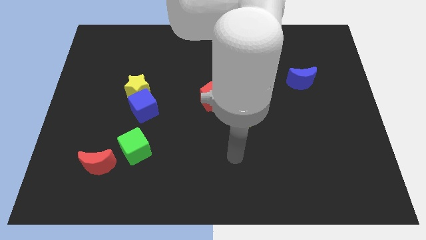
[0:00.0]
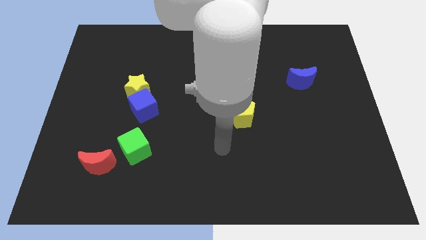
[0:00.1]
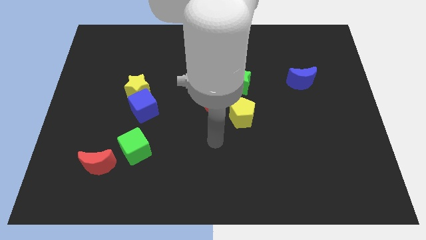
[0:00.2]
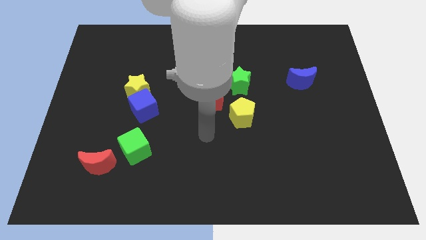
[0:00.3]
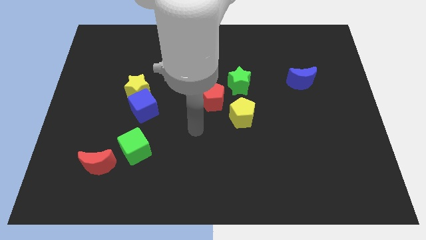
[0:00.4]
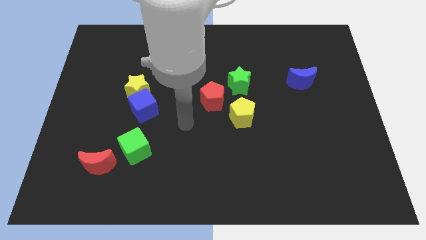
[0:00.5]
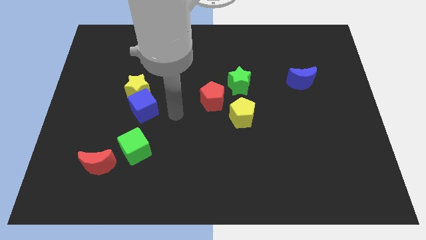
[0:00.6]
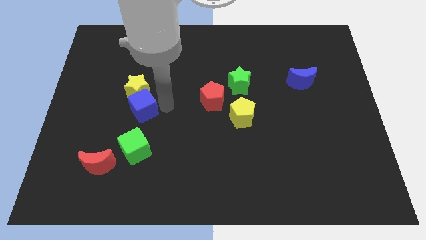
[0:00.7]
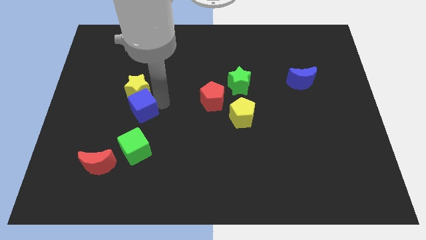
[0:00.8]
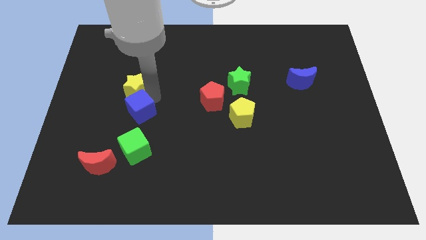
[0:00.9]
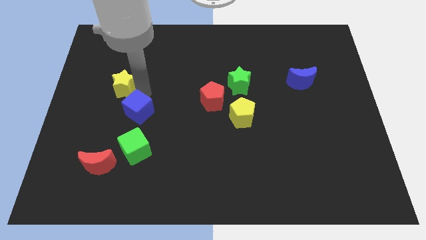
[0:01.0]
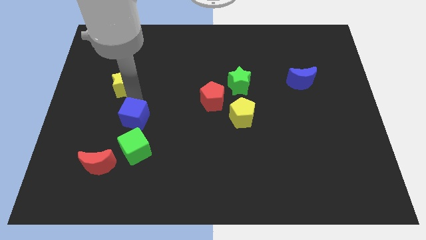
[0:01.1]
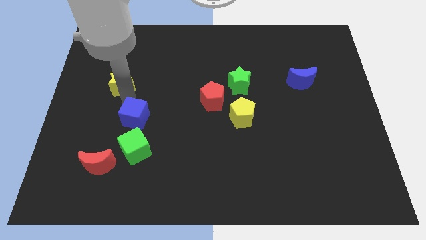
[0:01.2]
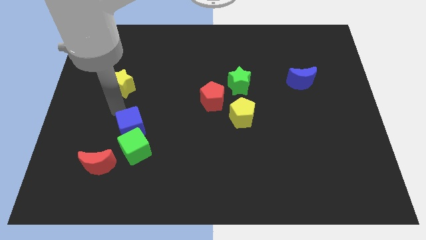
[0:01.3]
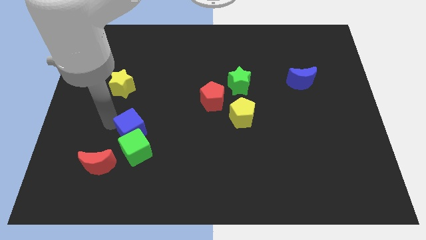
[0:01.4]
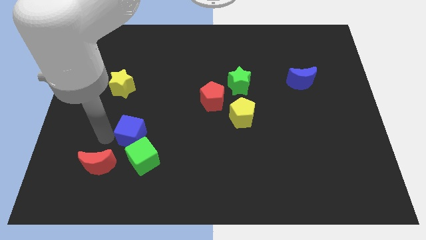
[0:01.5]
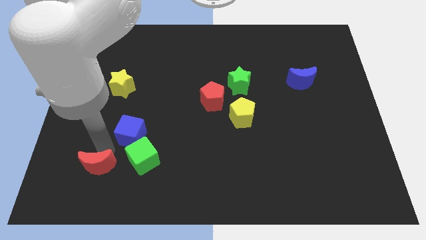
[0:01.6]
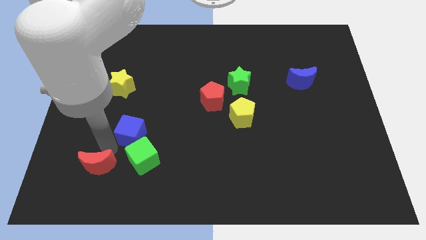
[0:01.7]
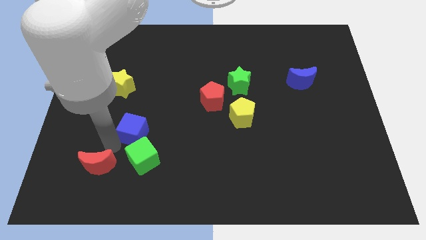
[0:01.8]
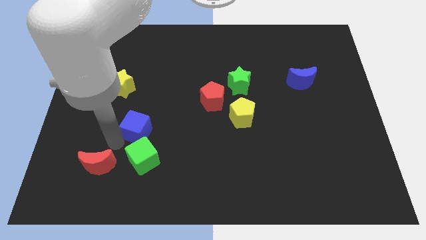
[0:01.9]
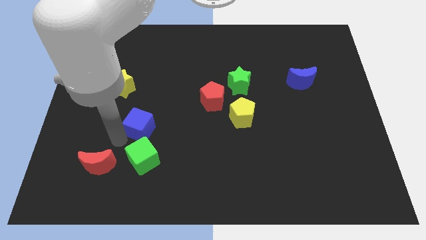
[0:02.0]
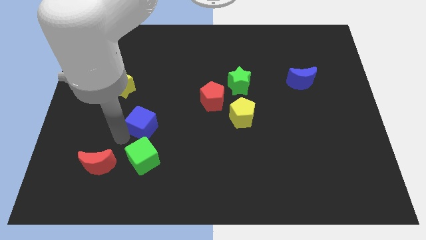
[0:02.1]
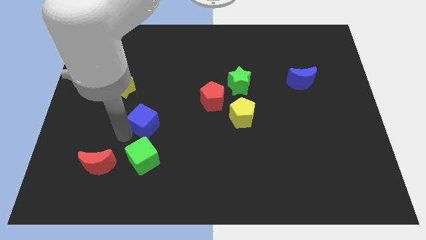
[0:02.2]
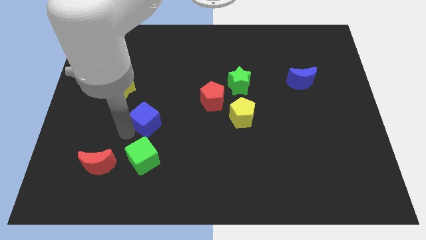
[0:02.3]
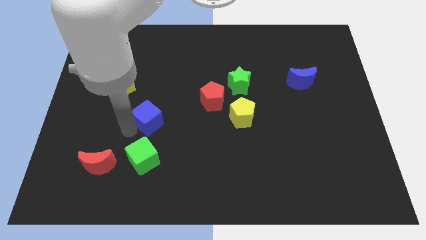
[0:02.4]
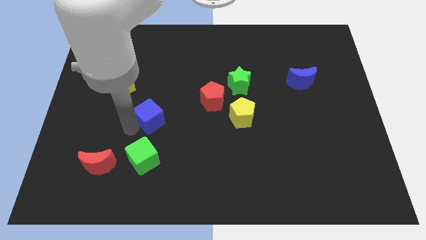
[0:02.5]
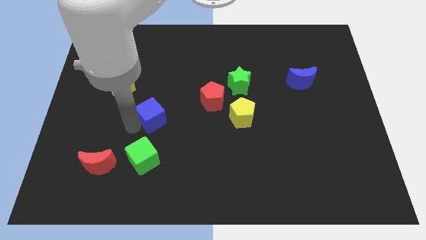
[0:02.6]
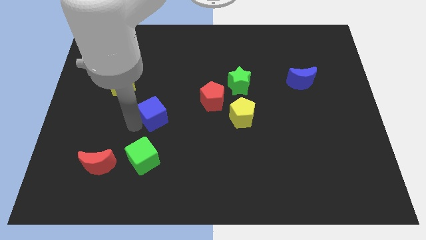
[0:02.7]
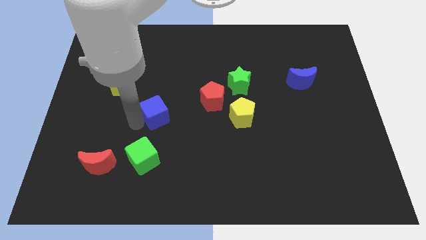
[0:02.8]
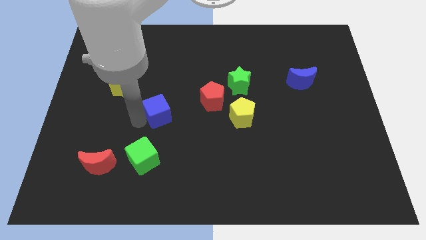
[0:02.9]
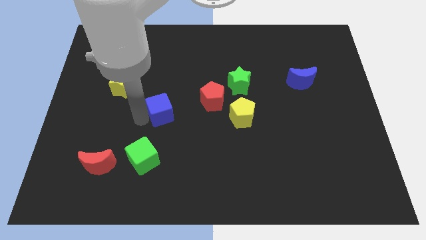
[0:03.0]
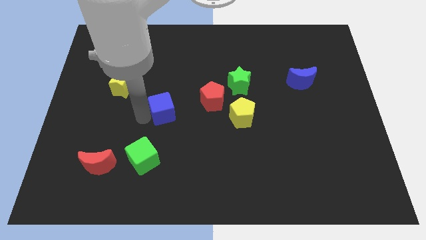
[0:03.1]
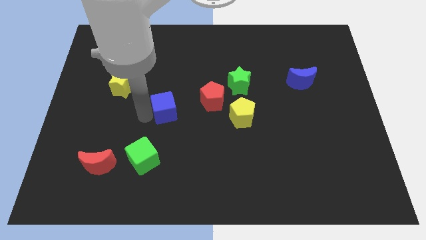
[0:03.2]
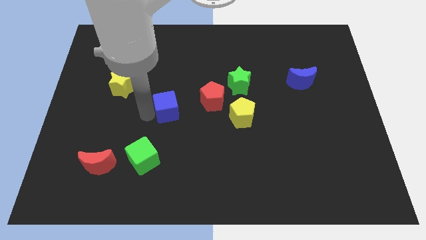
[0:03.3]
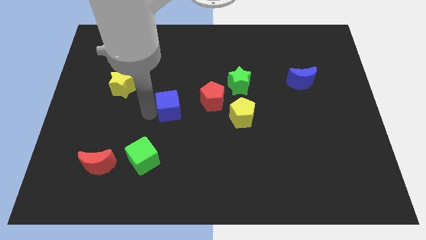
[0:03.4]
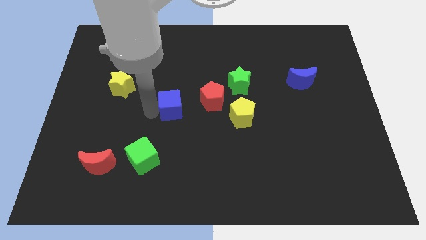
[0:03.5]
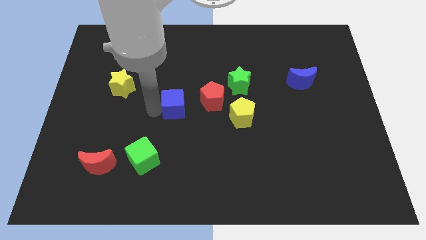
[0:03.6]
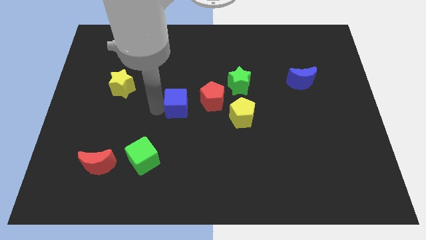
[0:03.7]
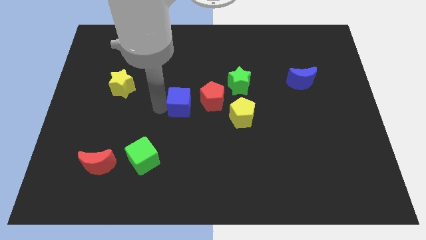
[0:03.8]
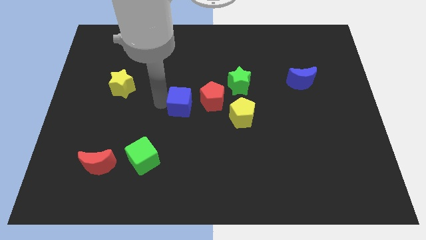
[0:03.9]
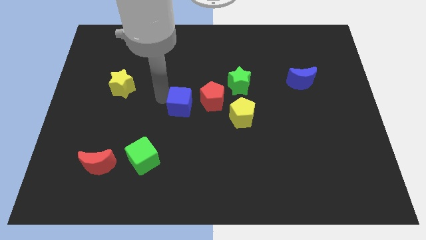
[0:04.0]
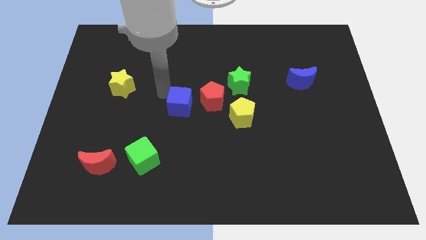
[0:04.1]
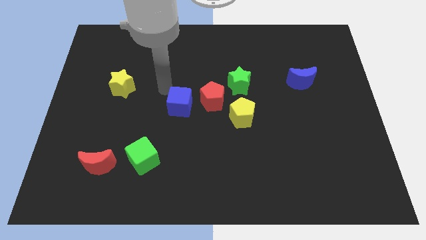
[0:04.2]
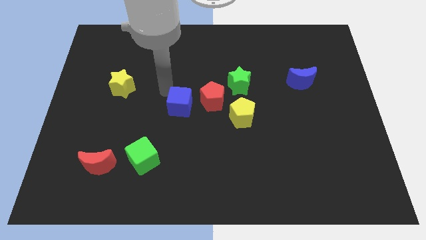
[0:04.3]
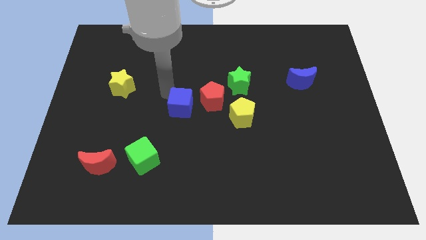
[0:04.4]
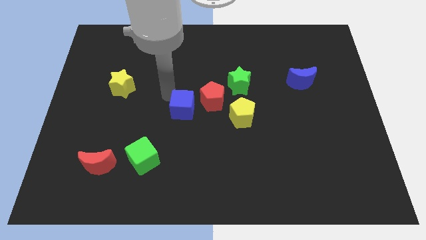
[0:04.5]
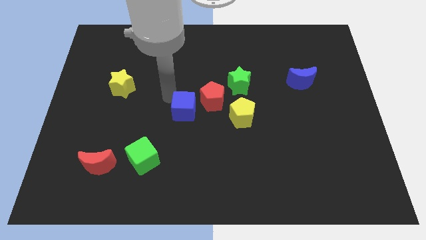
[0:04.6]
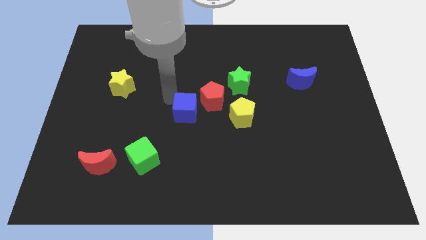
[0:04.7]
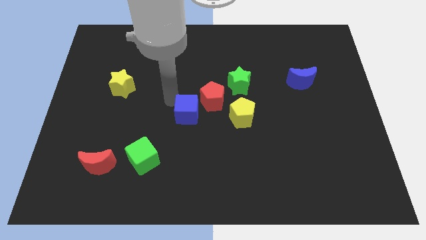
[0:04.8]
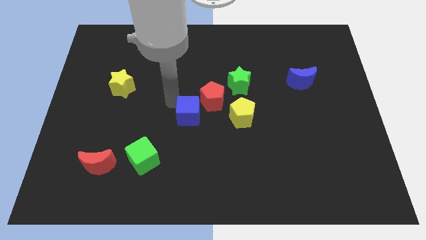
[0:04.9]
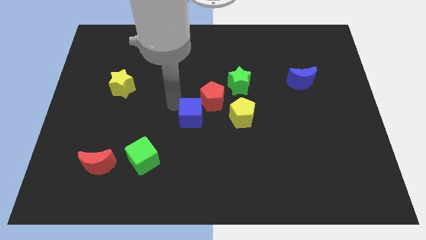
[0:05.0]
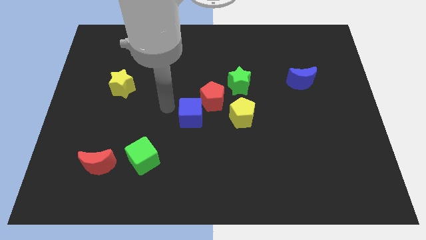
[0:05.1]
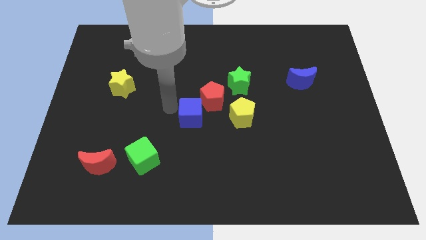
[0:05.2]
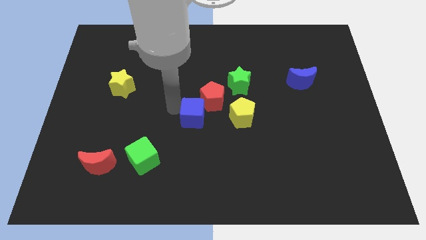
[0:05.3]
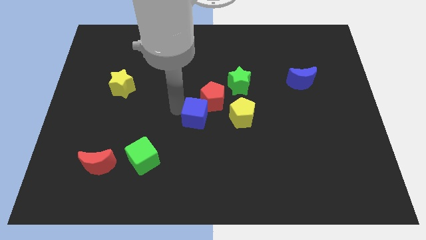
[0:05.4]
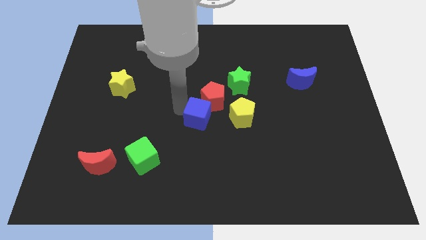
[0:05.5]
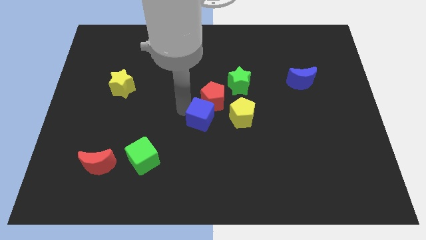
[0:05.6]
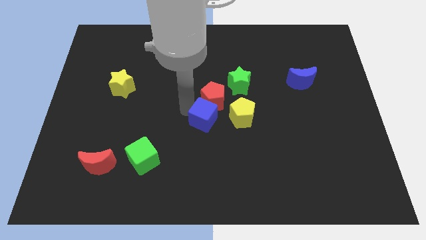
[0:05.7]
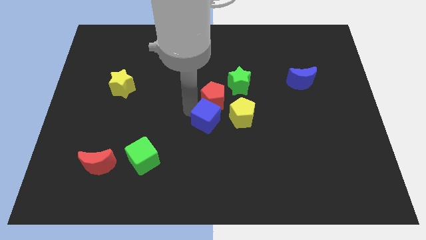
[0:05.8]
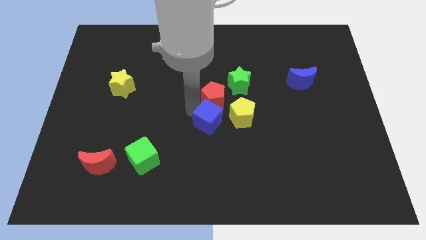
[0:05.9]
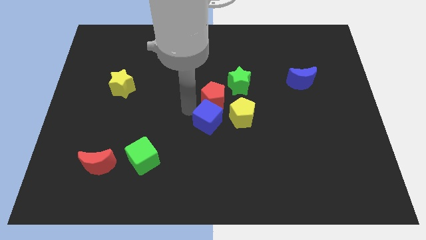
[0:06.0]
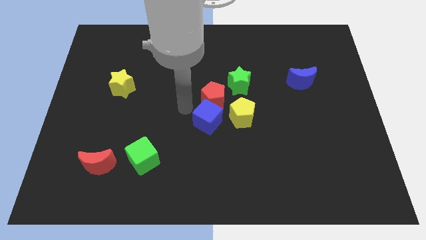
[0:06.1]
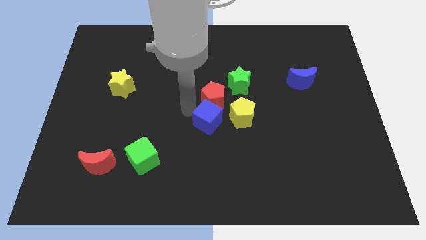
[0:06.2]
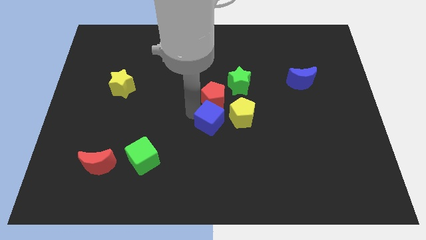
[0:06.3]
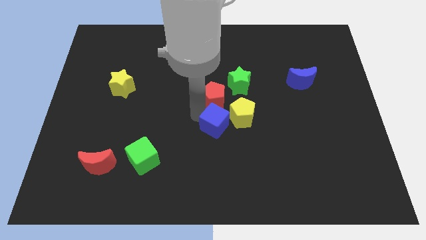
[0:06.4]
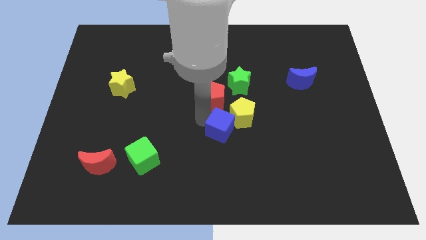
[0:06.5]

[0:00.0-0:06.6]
move the blue cube close to the yellow pentagon
